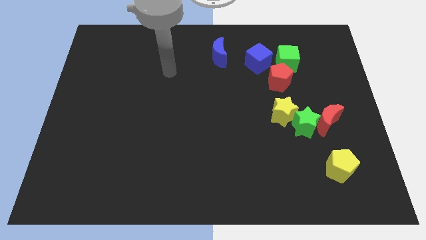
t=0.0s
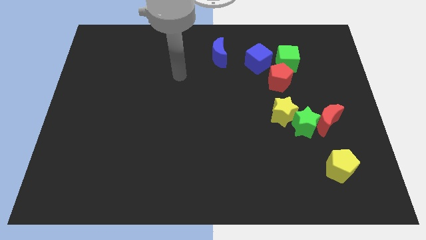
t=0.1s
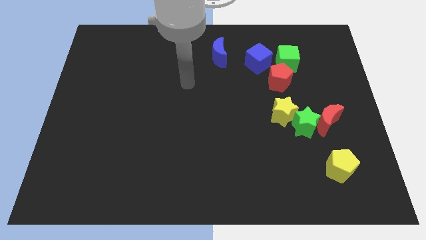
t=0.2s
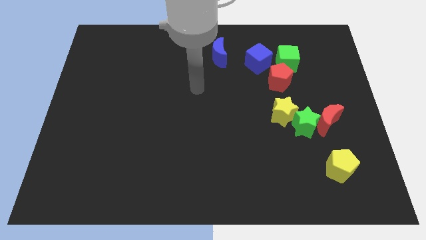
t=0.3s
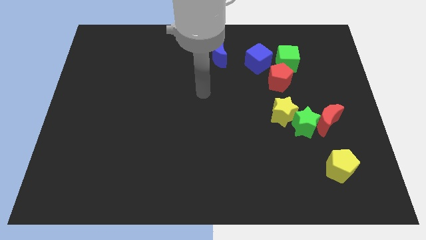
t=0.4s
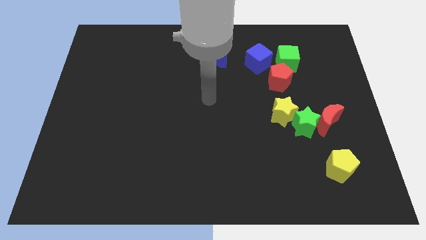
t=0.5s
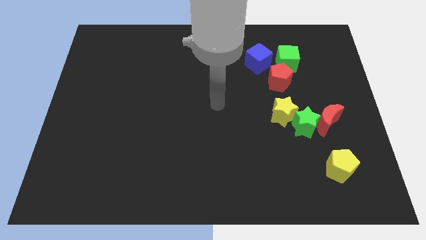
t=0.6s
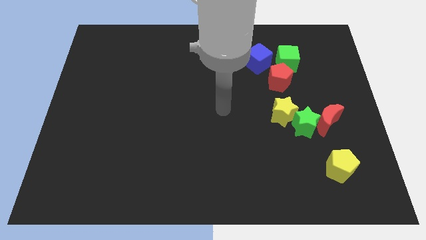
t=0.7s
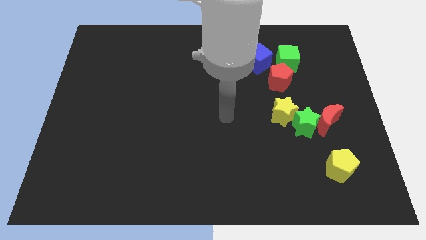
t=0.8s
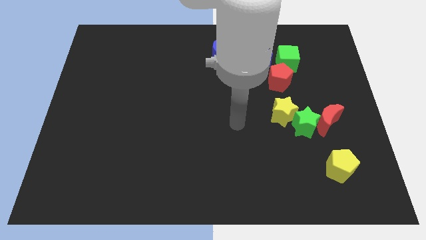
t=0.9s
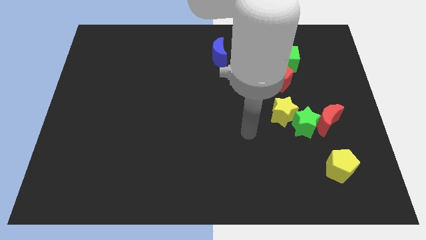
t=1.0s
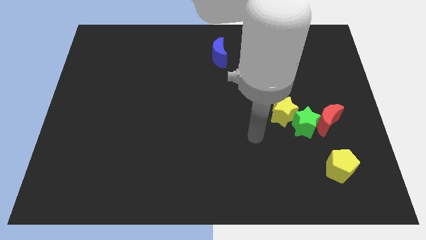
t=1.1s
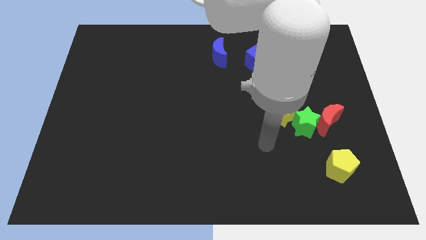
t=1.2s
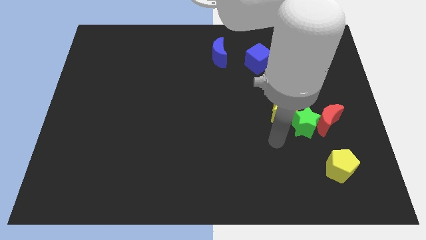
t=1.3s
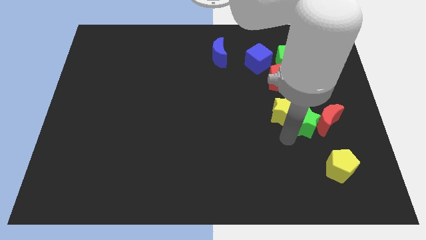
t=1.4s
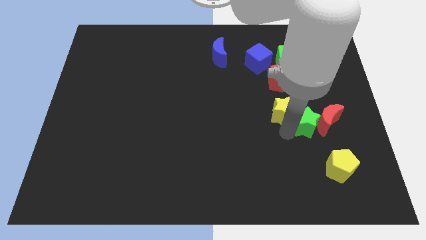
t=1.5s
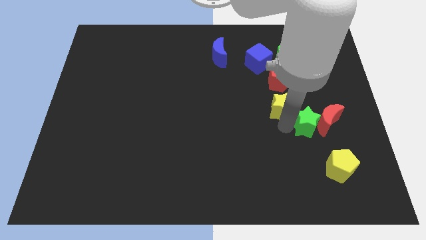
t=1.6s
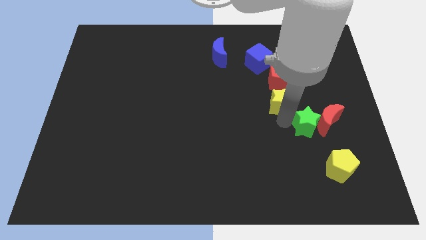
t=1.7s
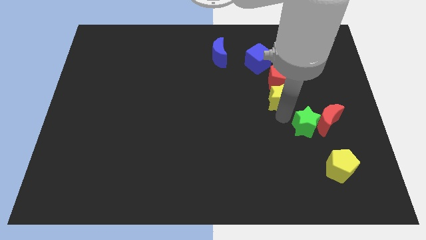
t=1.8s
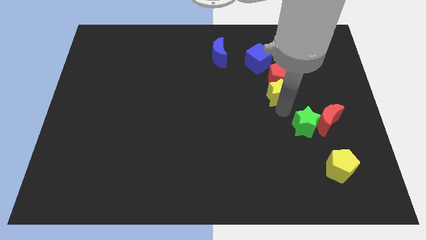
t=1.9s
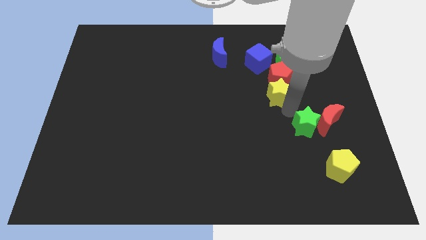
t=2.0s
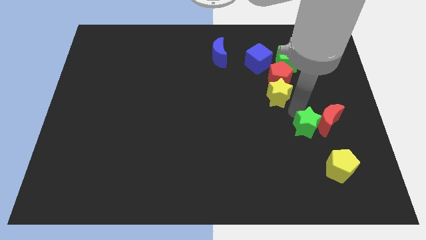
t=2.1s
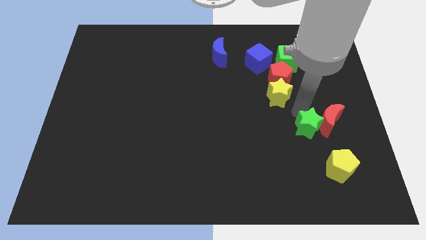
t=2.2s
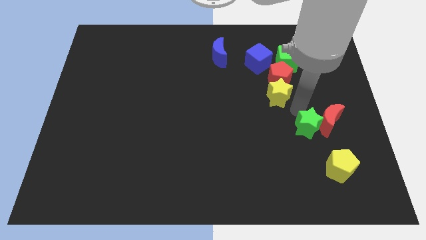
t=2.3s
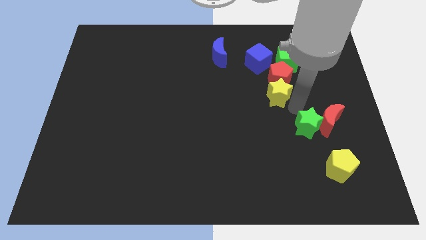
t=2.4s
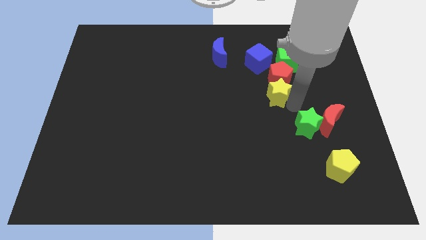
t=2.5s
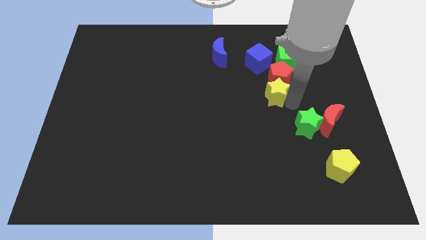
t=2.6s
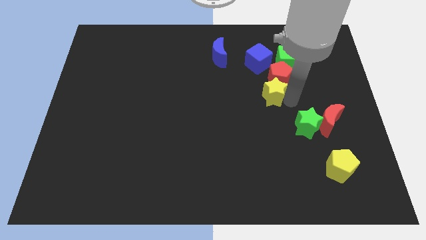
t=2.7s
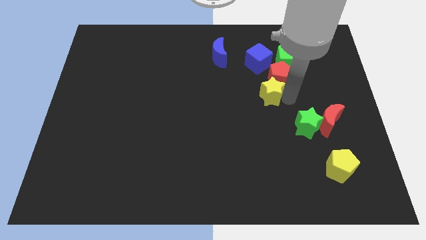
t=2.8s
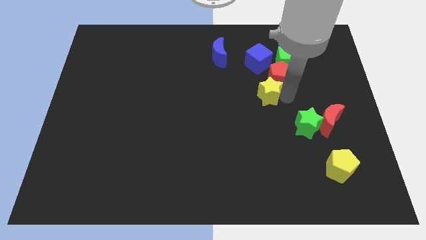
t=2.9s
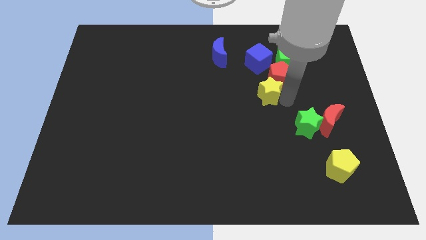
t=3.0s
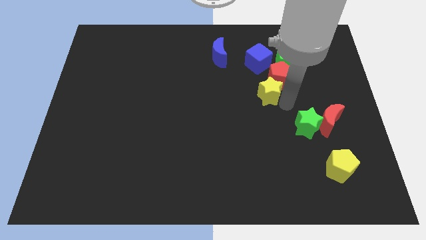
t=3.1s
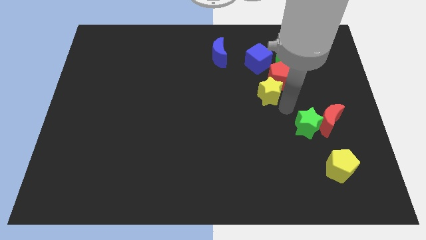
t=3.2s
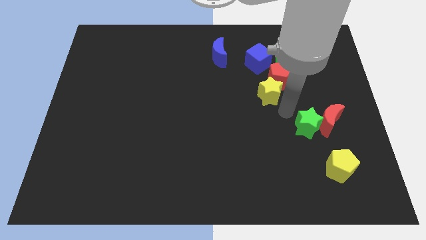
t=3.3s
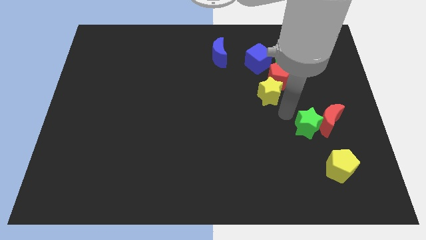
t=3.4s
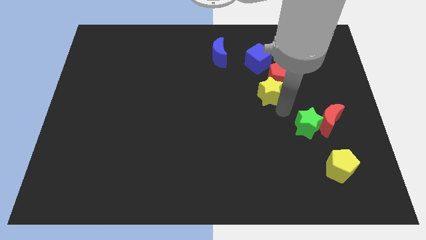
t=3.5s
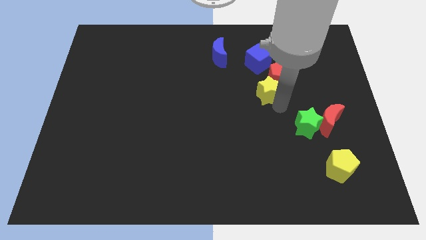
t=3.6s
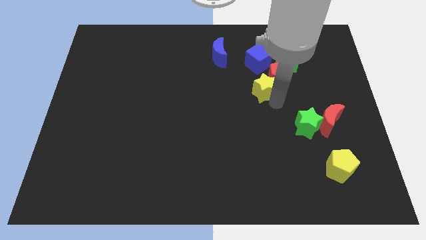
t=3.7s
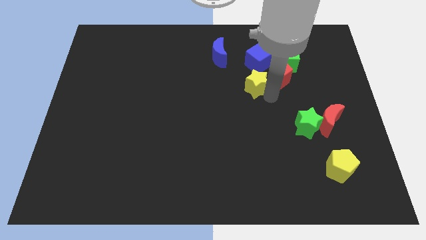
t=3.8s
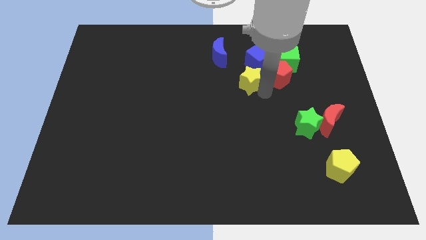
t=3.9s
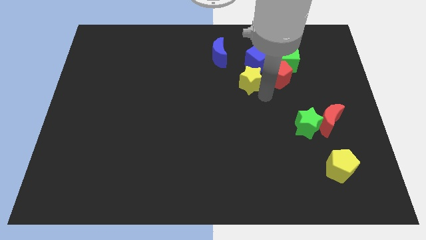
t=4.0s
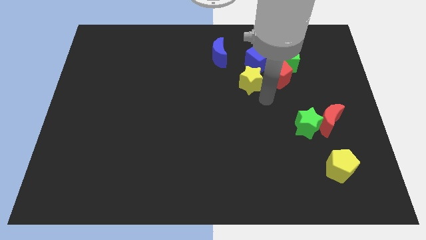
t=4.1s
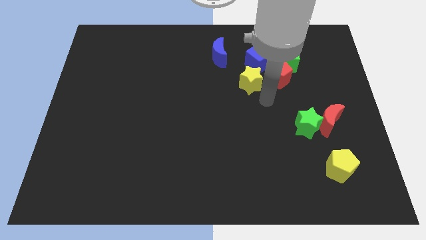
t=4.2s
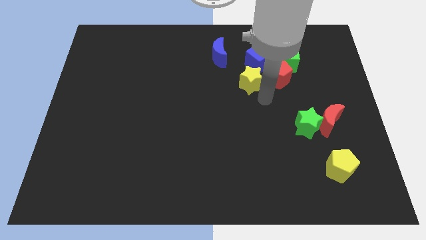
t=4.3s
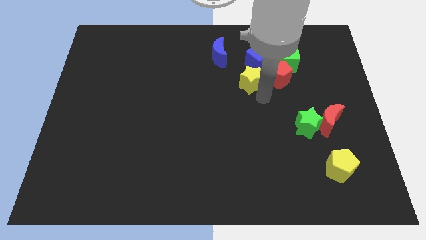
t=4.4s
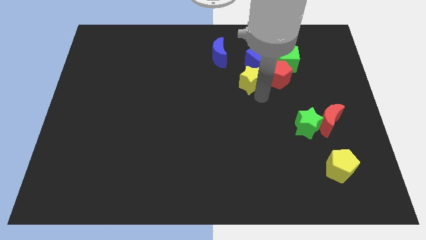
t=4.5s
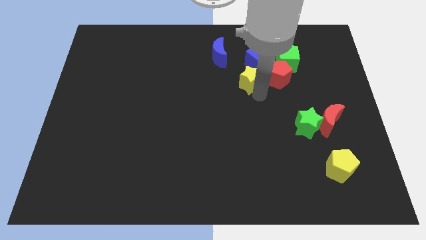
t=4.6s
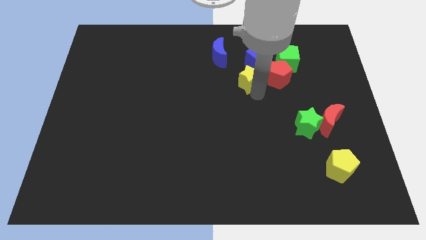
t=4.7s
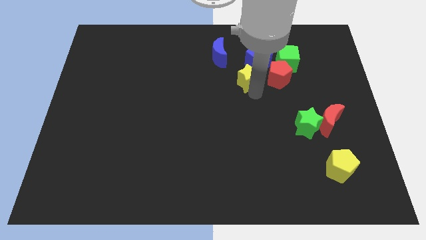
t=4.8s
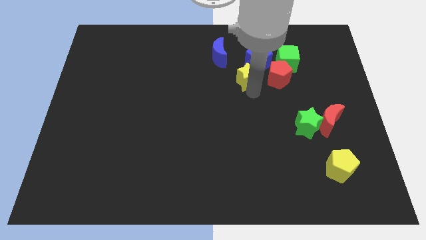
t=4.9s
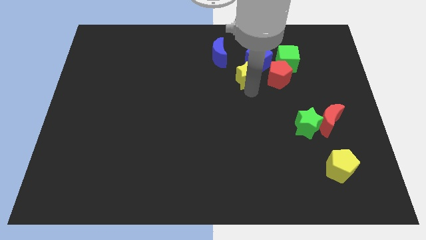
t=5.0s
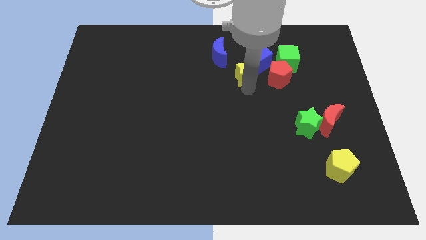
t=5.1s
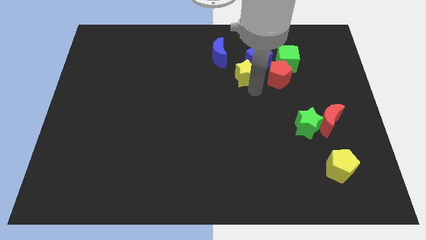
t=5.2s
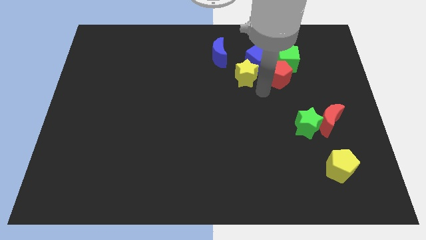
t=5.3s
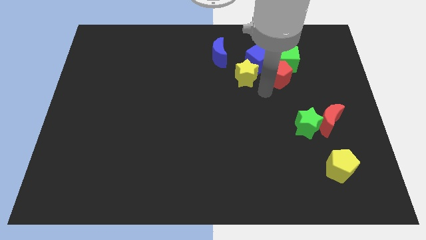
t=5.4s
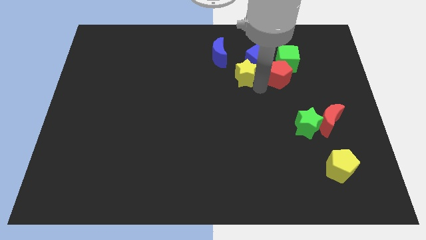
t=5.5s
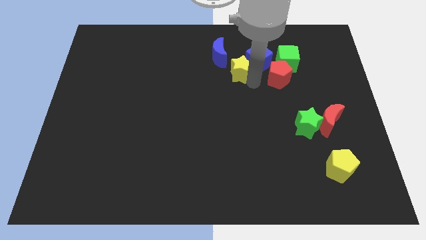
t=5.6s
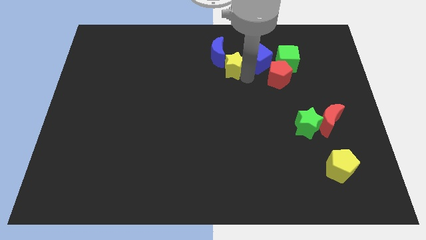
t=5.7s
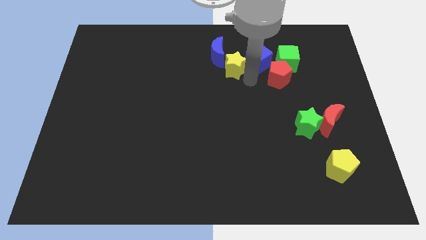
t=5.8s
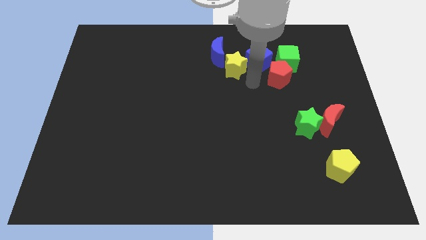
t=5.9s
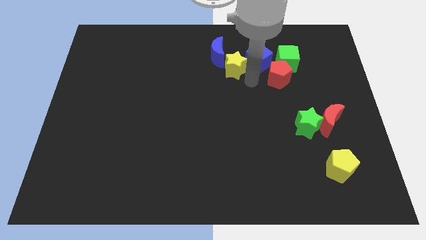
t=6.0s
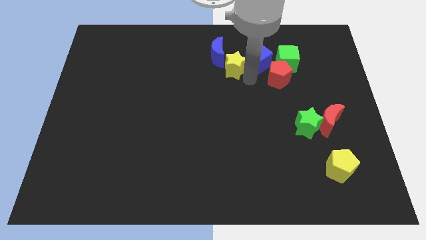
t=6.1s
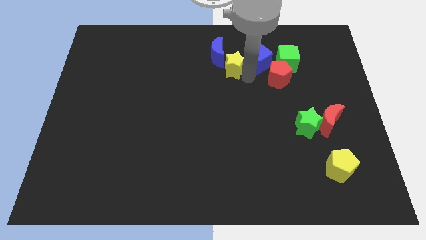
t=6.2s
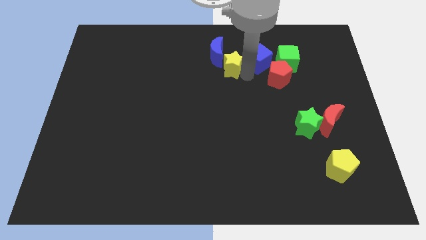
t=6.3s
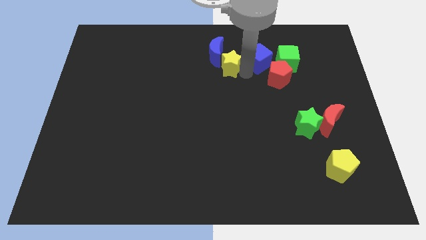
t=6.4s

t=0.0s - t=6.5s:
put the yellow star next to the blue moon

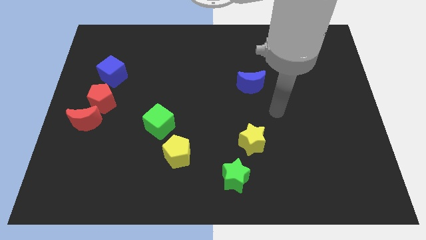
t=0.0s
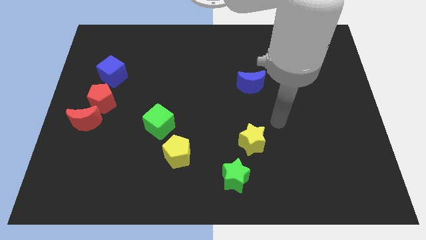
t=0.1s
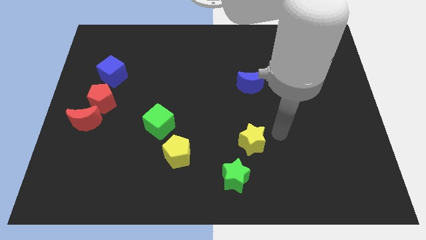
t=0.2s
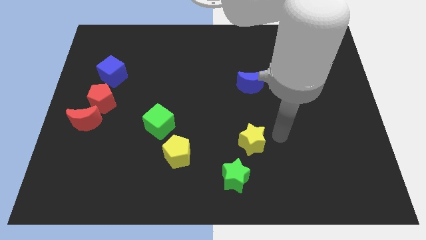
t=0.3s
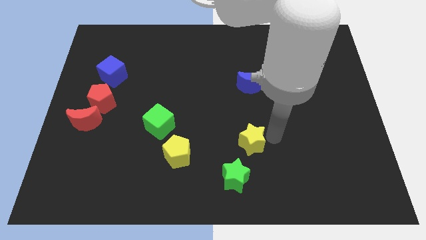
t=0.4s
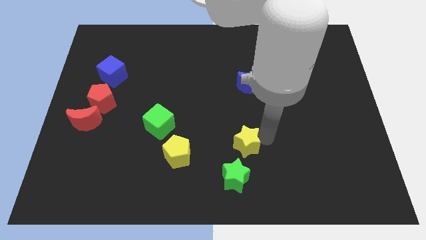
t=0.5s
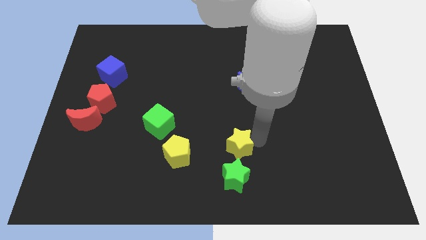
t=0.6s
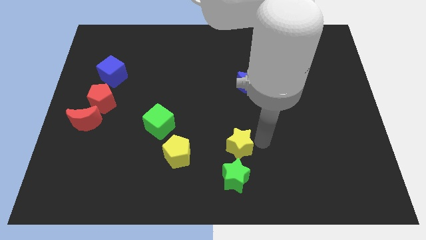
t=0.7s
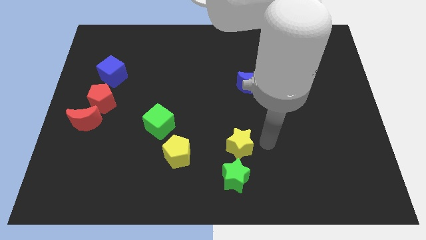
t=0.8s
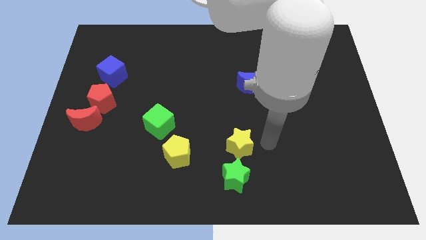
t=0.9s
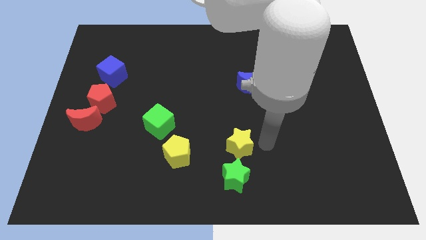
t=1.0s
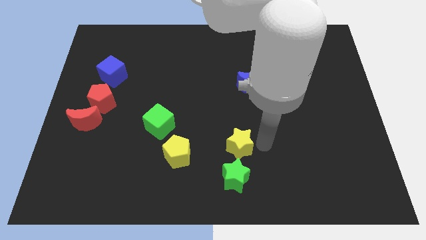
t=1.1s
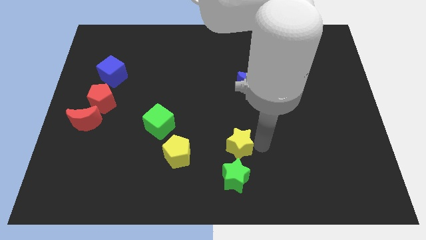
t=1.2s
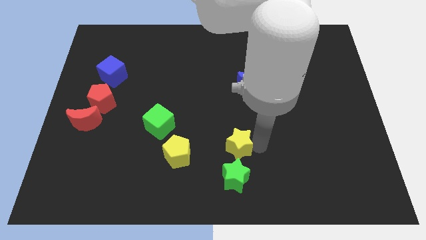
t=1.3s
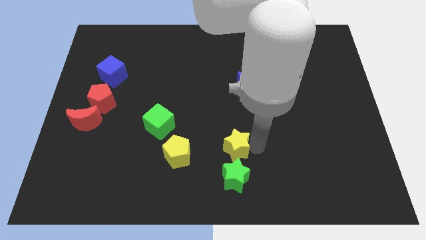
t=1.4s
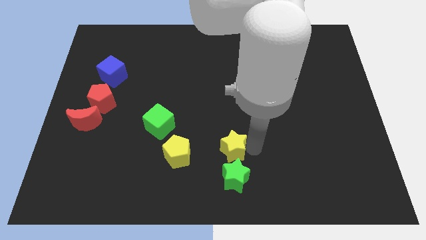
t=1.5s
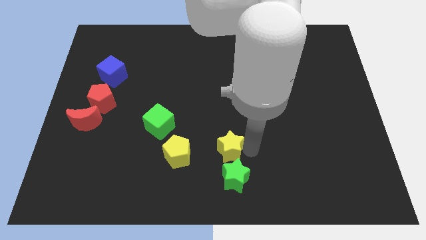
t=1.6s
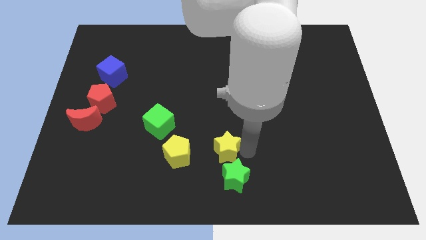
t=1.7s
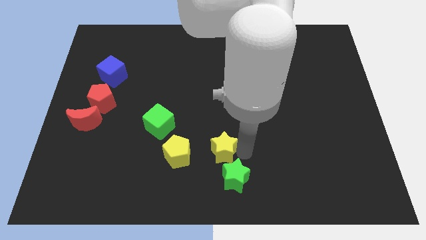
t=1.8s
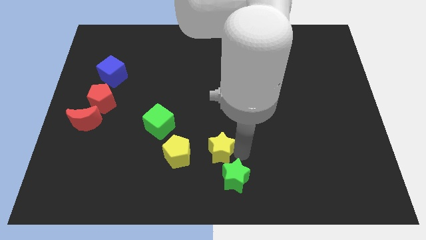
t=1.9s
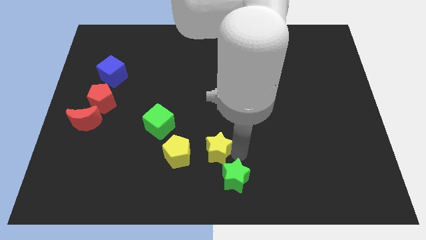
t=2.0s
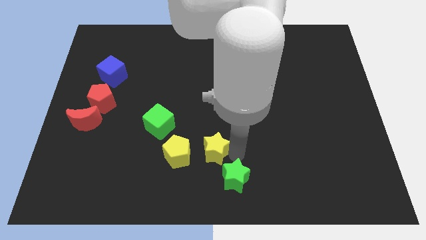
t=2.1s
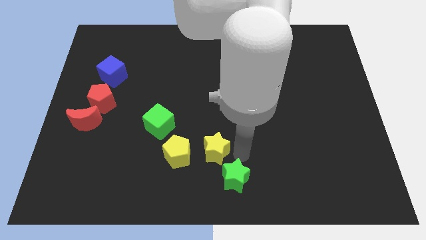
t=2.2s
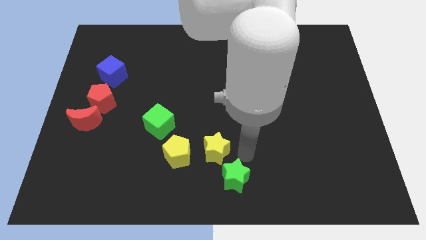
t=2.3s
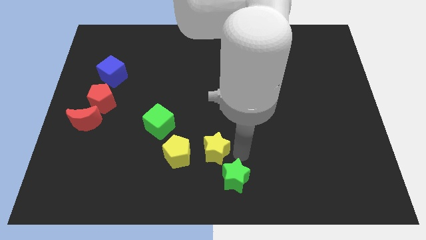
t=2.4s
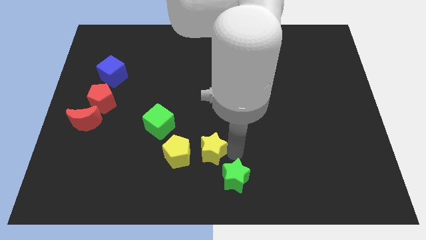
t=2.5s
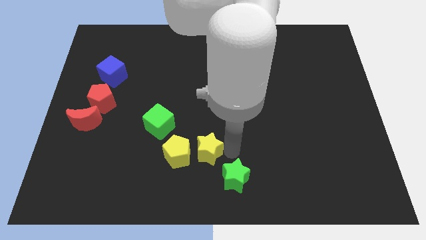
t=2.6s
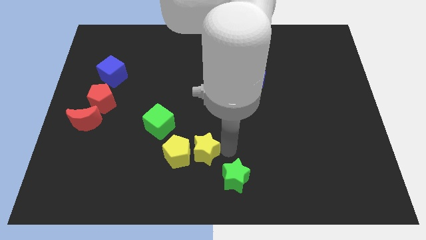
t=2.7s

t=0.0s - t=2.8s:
slide the yellow star towards the yellow pentagon
